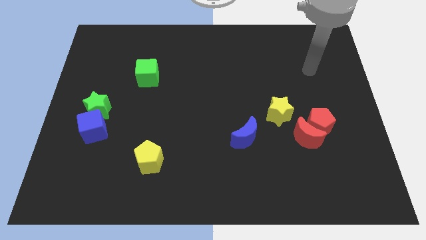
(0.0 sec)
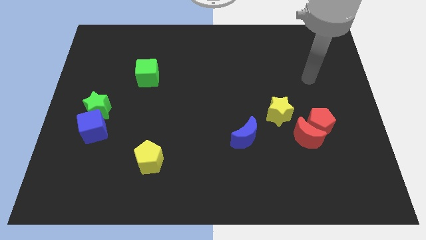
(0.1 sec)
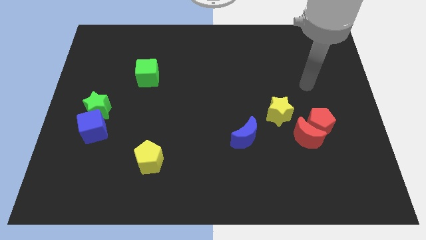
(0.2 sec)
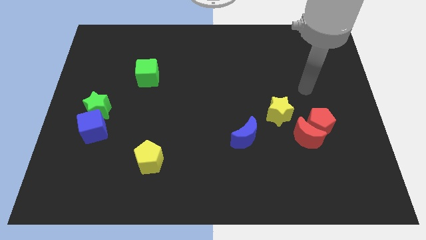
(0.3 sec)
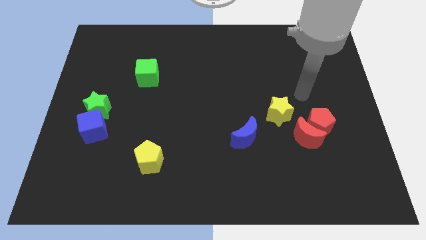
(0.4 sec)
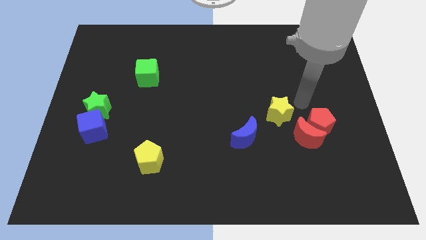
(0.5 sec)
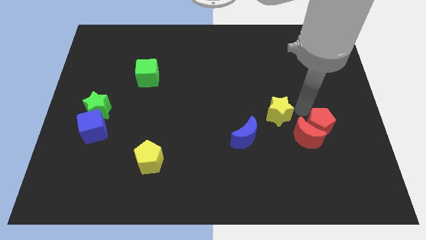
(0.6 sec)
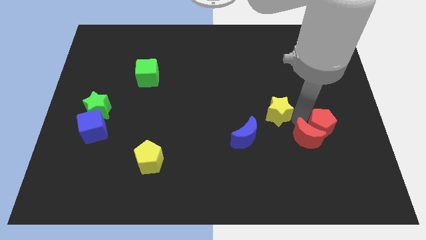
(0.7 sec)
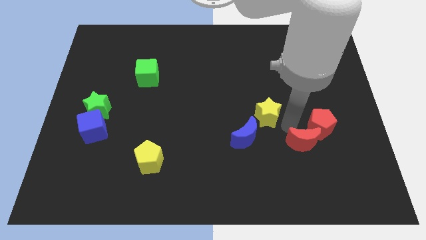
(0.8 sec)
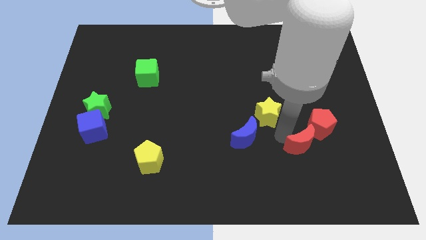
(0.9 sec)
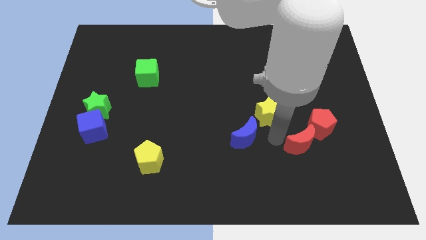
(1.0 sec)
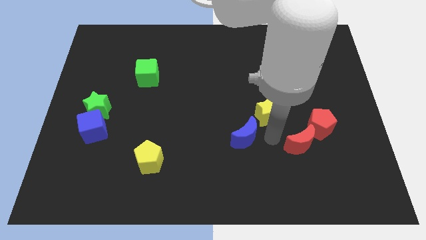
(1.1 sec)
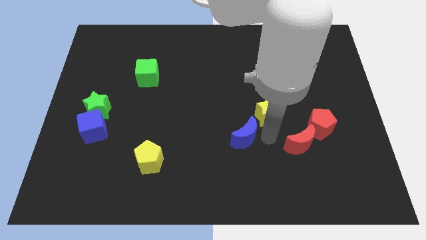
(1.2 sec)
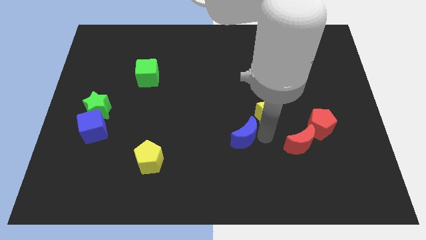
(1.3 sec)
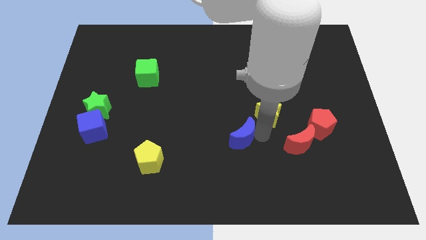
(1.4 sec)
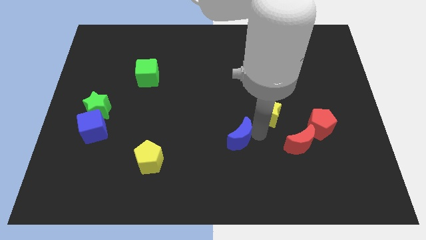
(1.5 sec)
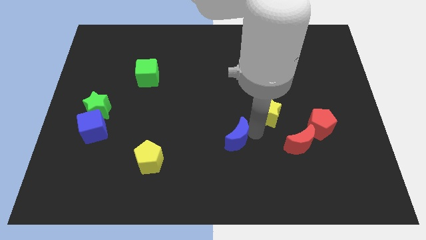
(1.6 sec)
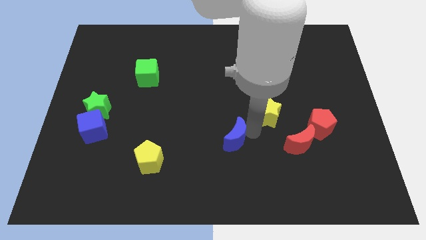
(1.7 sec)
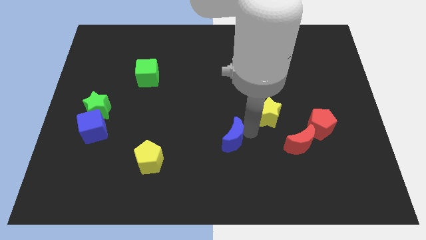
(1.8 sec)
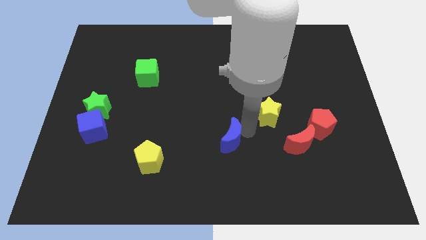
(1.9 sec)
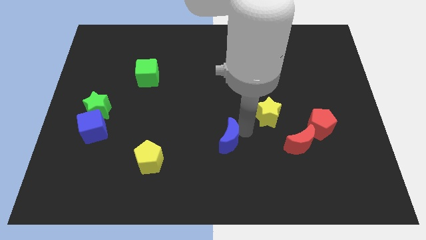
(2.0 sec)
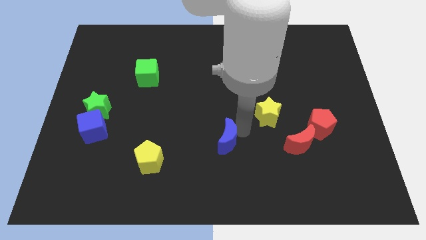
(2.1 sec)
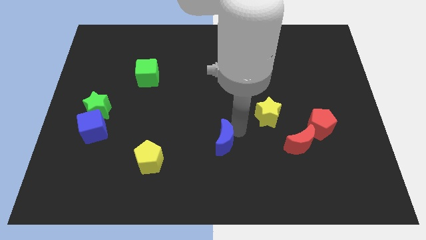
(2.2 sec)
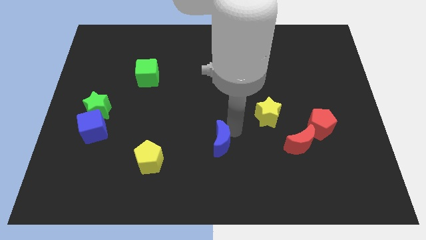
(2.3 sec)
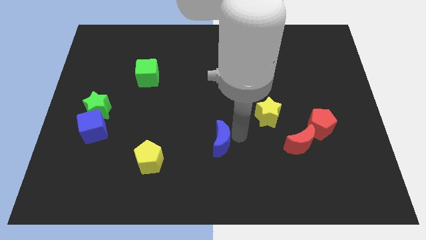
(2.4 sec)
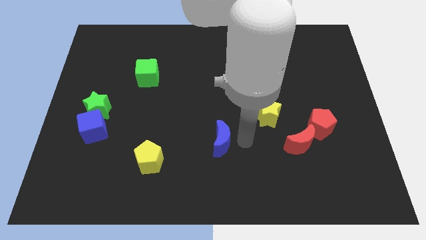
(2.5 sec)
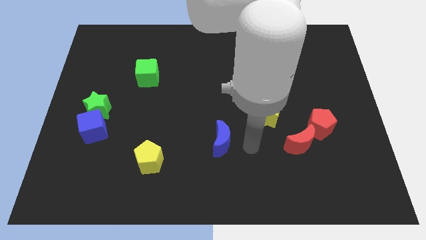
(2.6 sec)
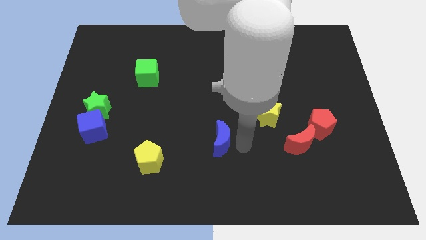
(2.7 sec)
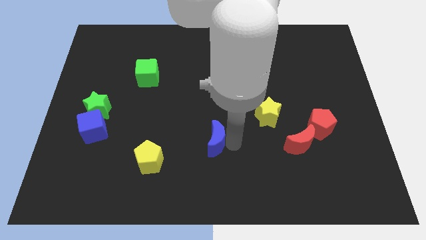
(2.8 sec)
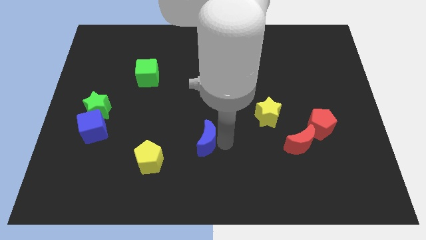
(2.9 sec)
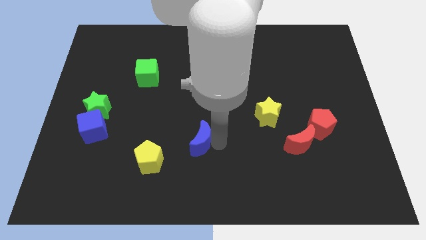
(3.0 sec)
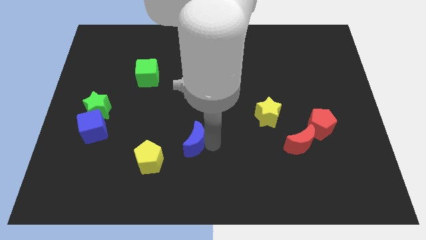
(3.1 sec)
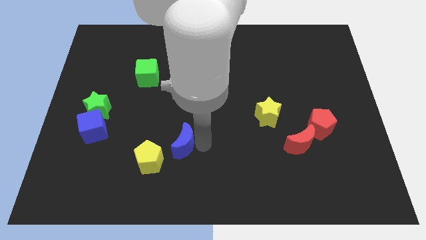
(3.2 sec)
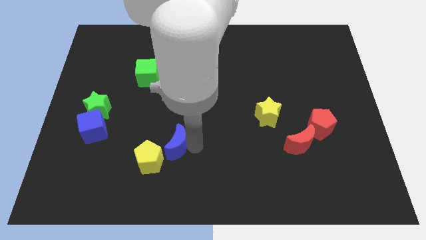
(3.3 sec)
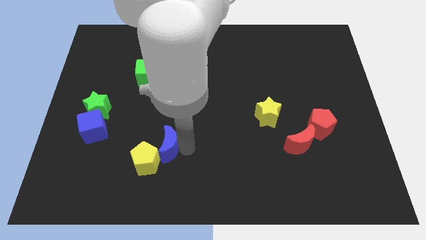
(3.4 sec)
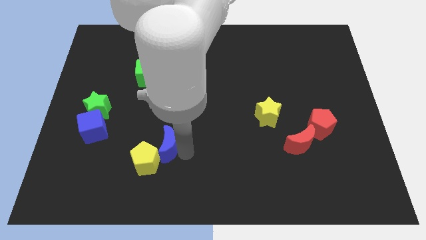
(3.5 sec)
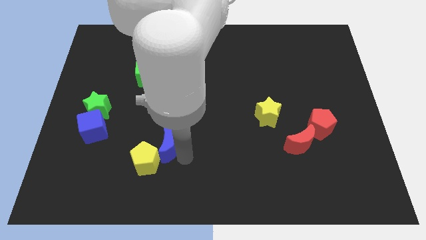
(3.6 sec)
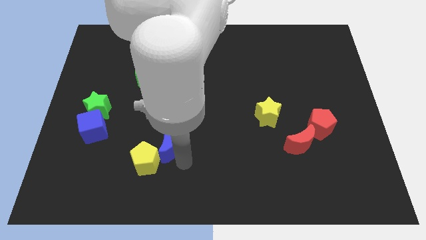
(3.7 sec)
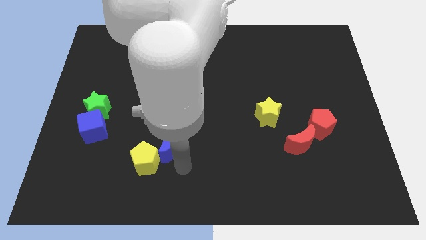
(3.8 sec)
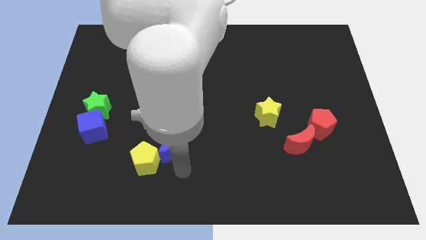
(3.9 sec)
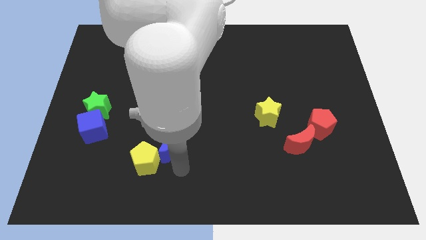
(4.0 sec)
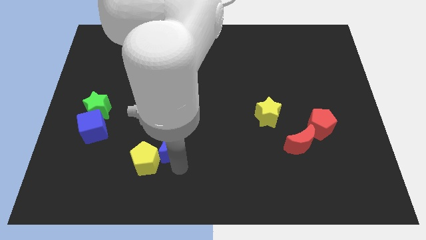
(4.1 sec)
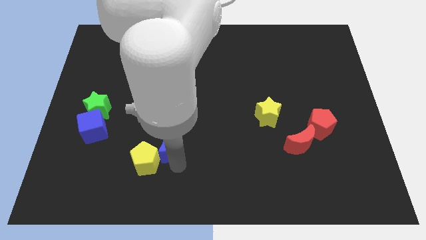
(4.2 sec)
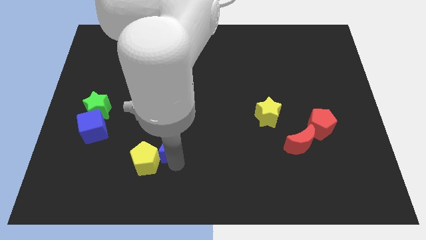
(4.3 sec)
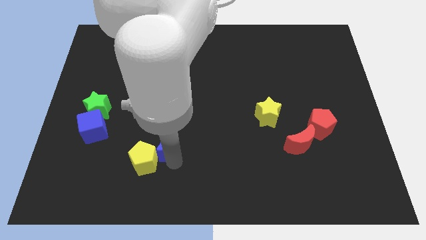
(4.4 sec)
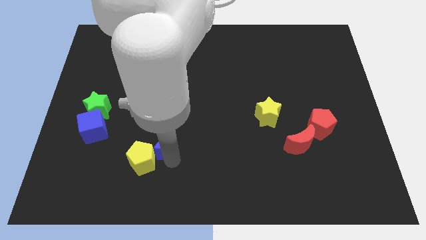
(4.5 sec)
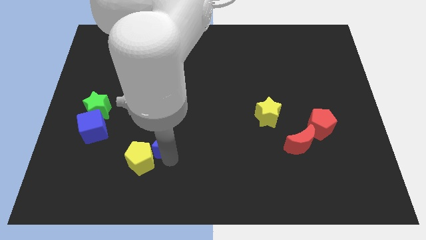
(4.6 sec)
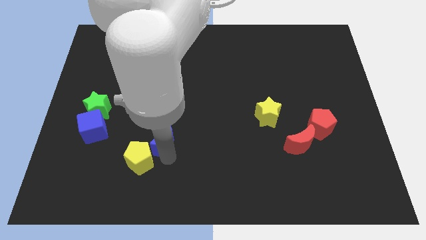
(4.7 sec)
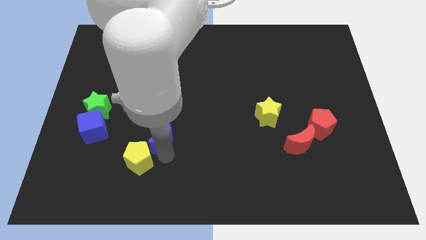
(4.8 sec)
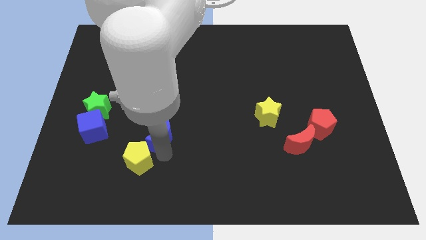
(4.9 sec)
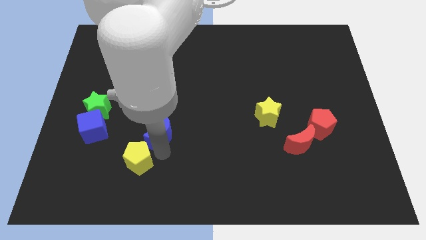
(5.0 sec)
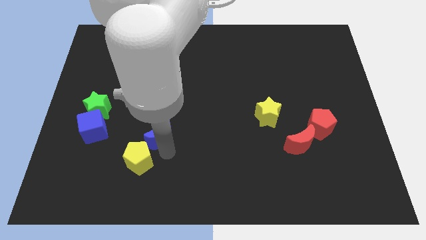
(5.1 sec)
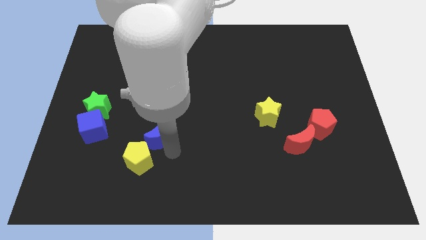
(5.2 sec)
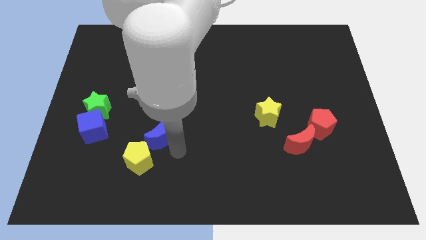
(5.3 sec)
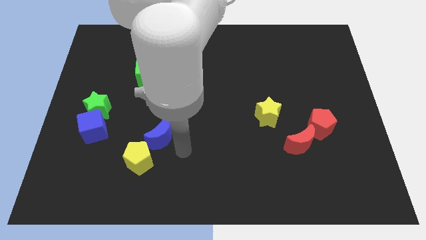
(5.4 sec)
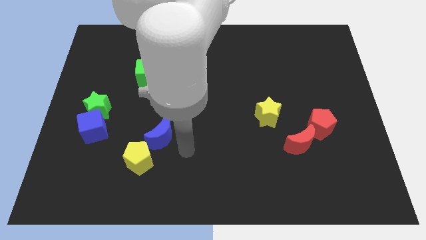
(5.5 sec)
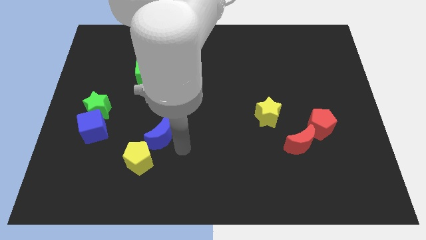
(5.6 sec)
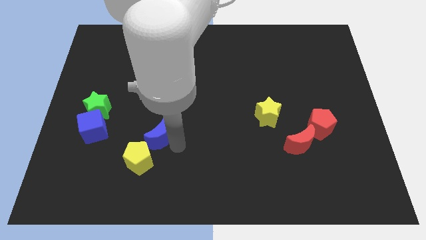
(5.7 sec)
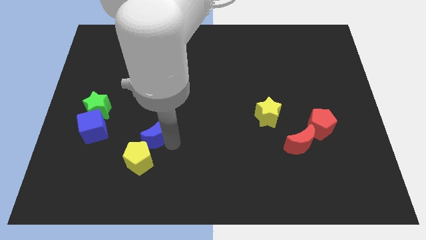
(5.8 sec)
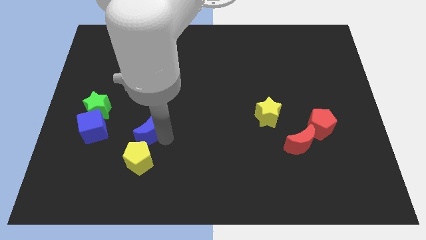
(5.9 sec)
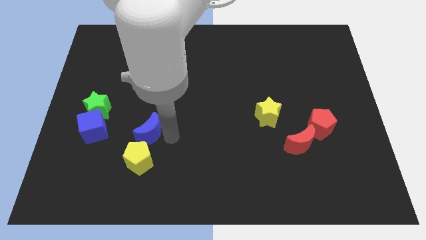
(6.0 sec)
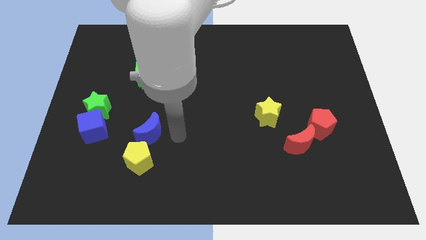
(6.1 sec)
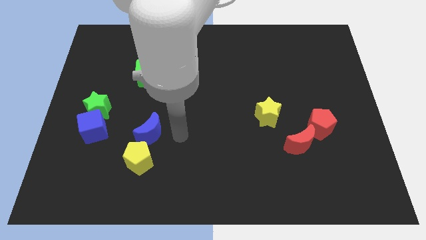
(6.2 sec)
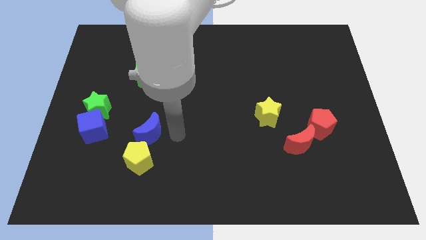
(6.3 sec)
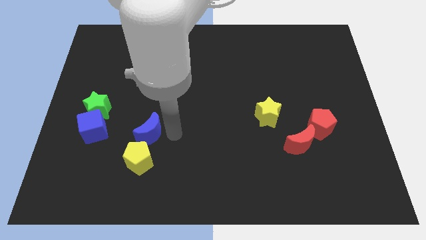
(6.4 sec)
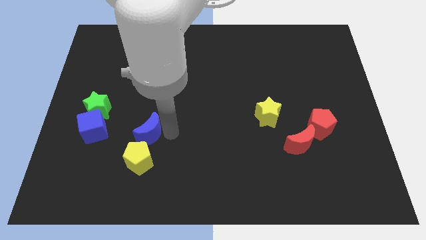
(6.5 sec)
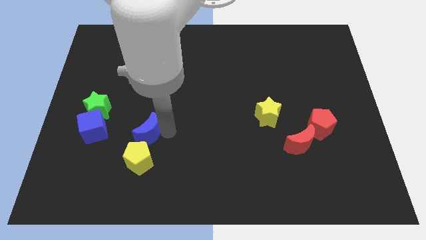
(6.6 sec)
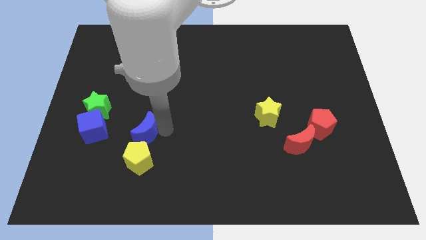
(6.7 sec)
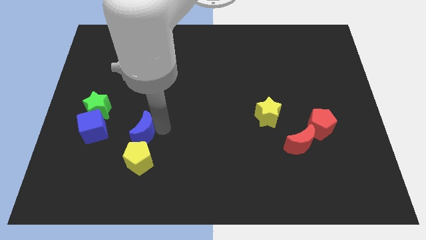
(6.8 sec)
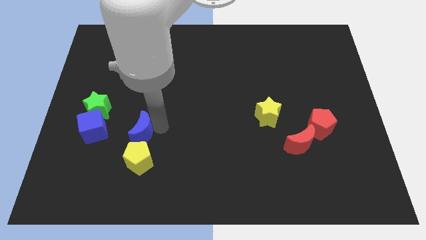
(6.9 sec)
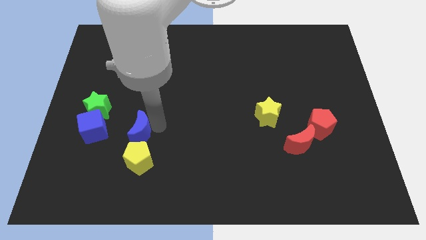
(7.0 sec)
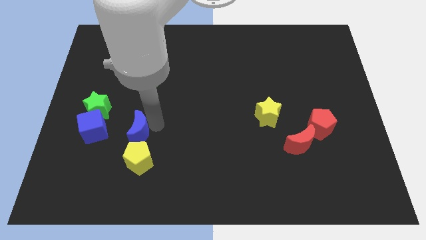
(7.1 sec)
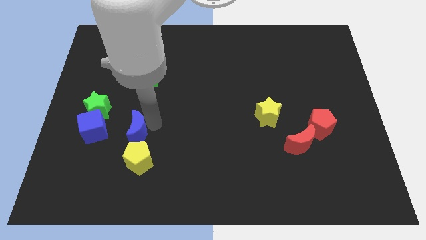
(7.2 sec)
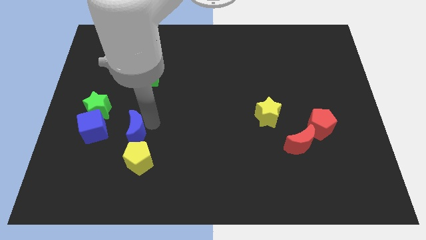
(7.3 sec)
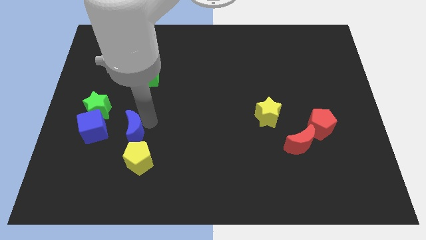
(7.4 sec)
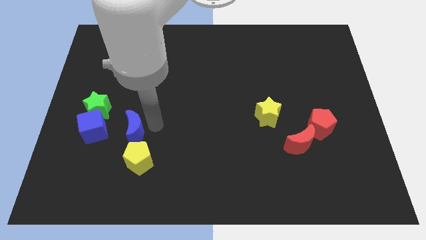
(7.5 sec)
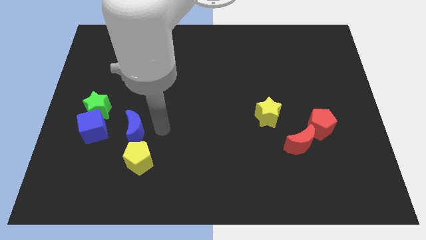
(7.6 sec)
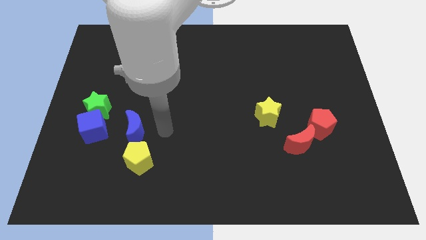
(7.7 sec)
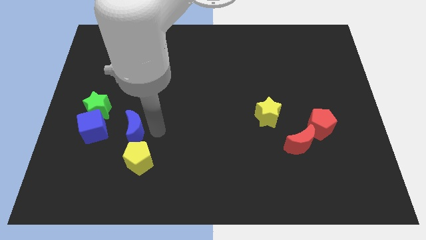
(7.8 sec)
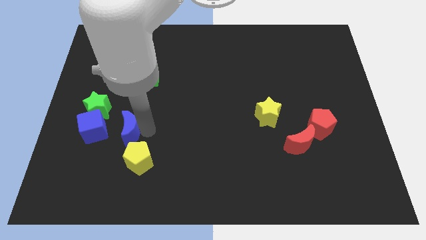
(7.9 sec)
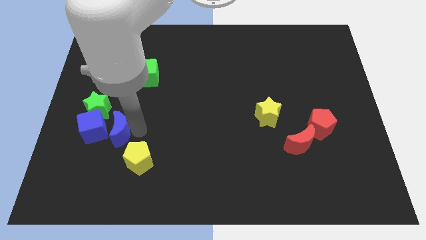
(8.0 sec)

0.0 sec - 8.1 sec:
put the blue moon next to the blue cube
